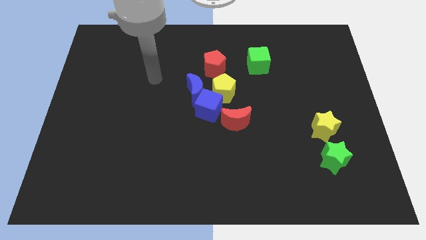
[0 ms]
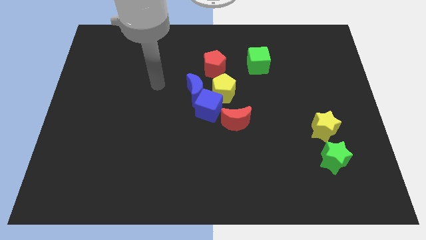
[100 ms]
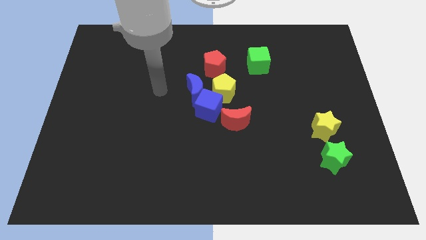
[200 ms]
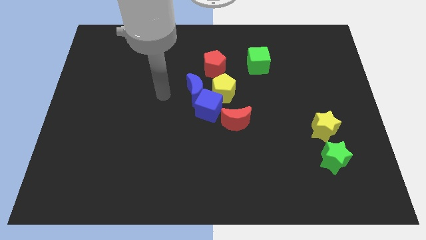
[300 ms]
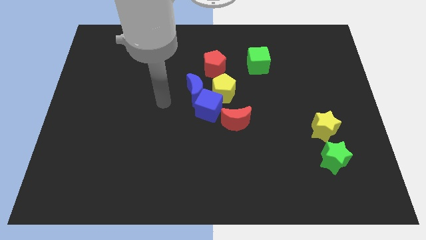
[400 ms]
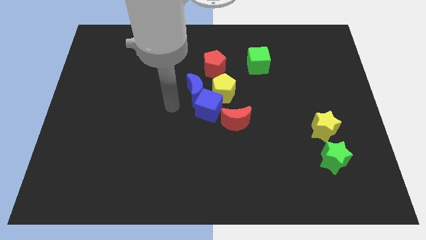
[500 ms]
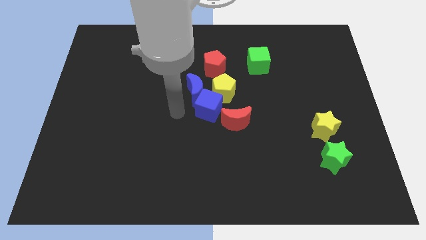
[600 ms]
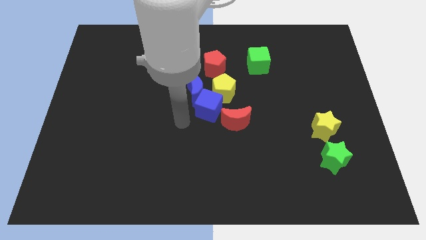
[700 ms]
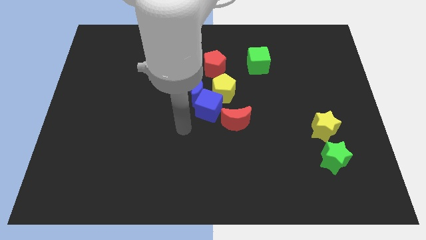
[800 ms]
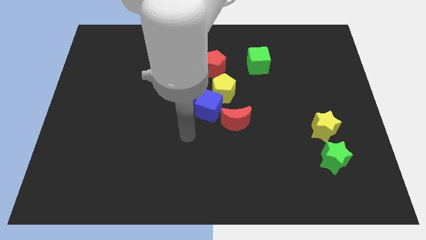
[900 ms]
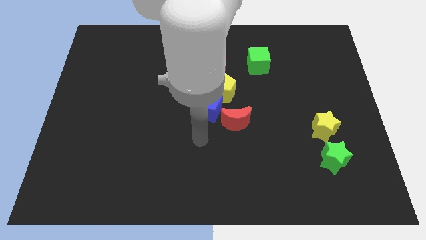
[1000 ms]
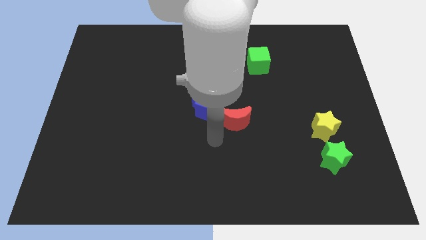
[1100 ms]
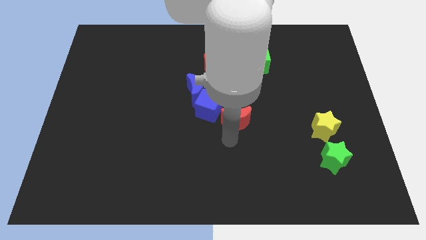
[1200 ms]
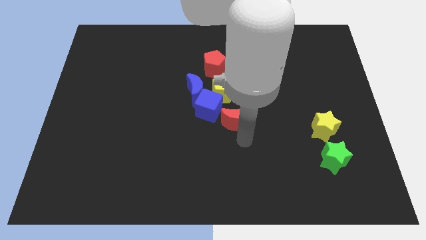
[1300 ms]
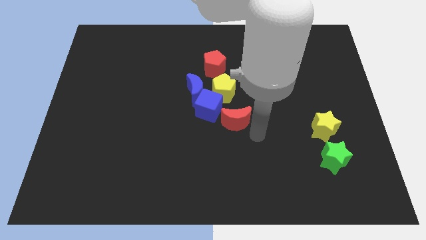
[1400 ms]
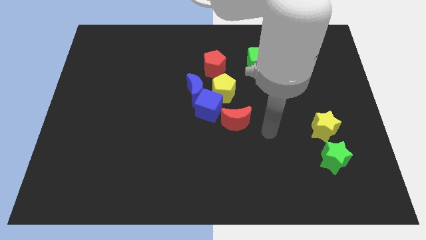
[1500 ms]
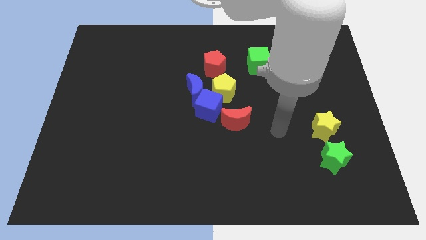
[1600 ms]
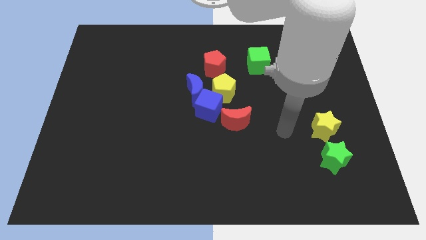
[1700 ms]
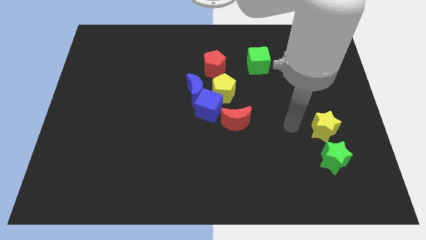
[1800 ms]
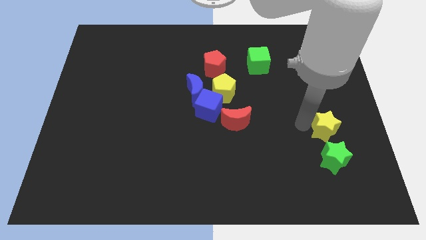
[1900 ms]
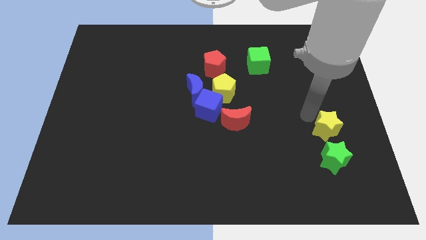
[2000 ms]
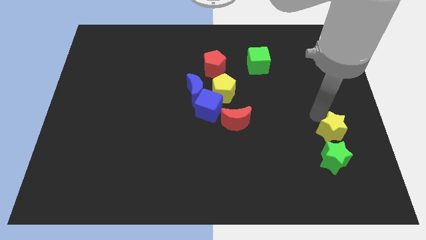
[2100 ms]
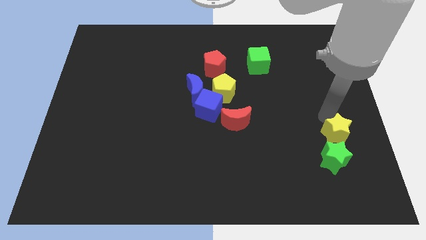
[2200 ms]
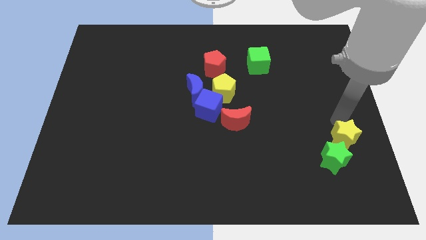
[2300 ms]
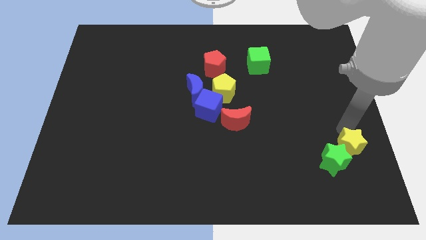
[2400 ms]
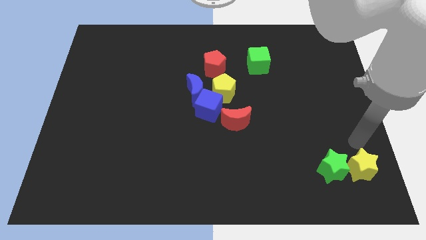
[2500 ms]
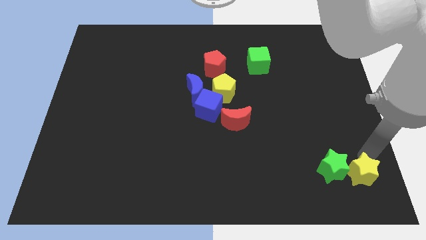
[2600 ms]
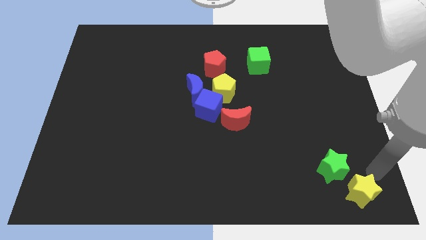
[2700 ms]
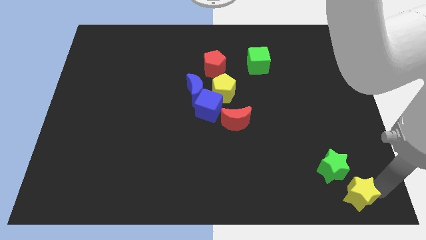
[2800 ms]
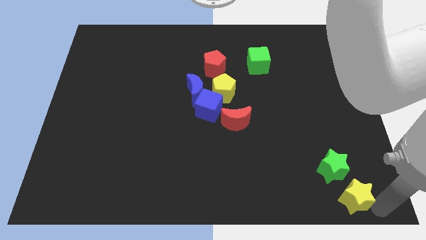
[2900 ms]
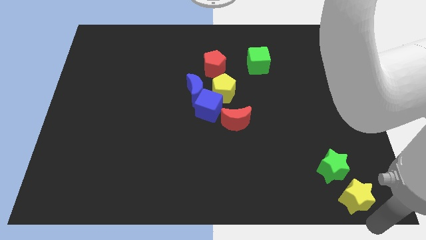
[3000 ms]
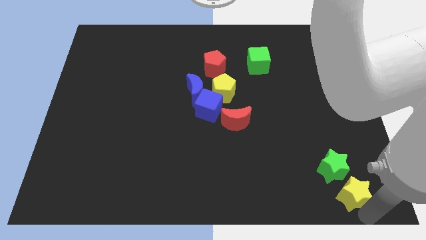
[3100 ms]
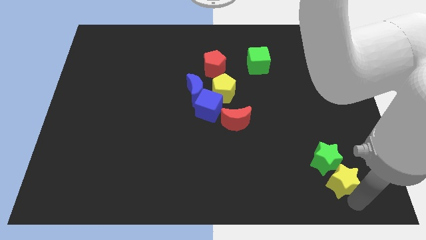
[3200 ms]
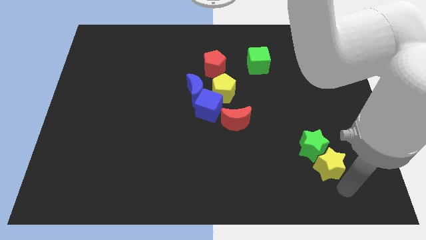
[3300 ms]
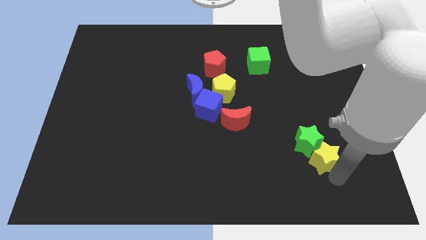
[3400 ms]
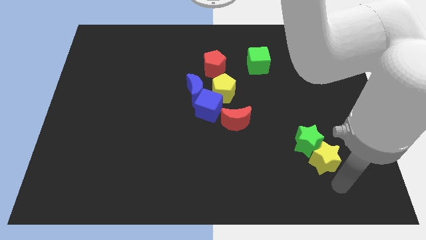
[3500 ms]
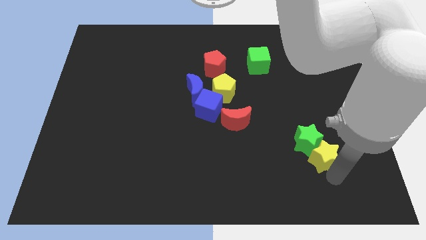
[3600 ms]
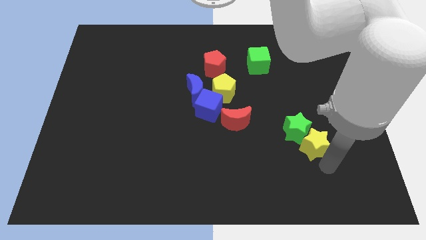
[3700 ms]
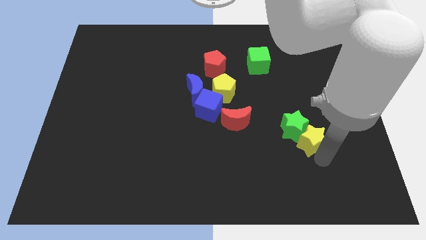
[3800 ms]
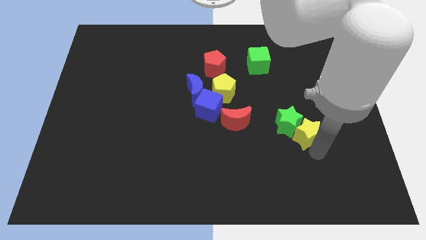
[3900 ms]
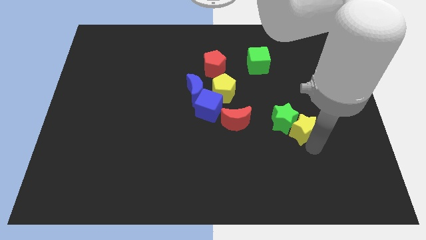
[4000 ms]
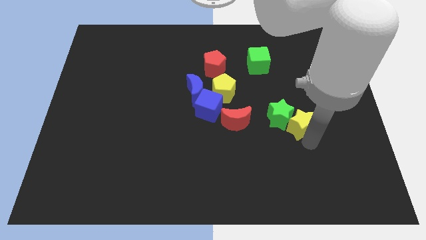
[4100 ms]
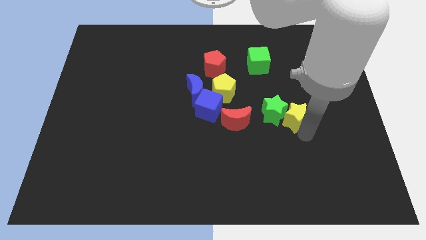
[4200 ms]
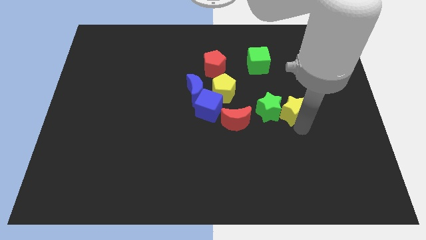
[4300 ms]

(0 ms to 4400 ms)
move the yellow star upwards and to the left a little

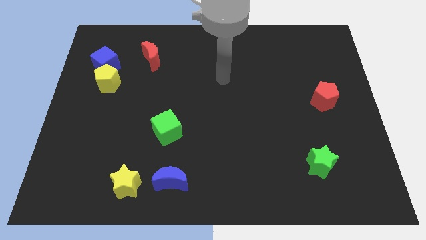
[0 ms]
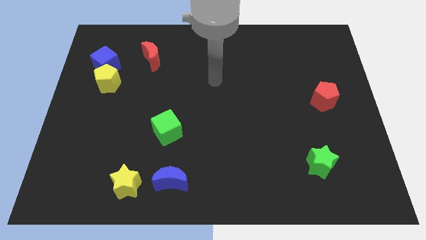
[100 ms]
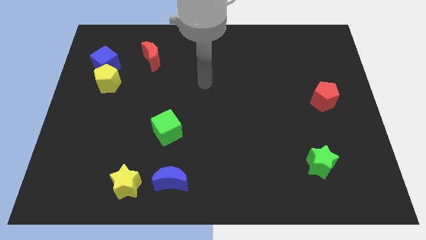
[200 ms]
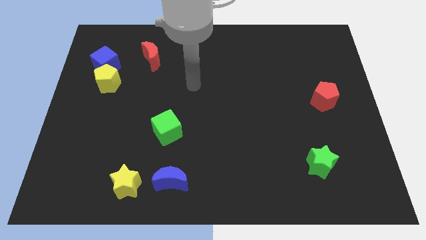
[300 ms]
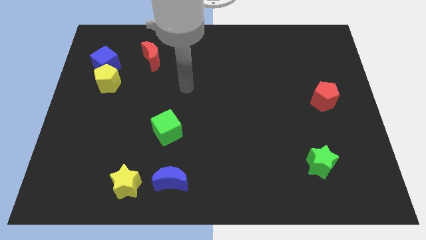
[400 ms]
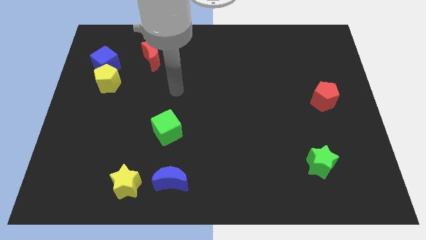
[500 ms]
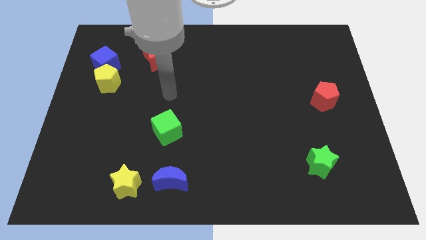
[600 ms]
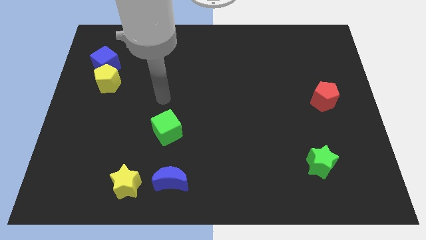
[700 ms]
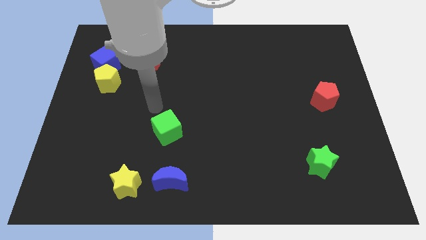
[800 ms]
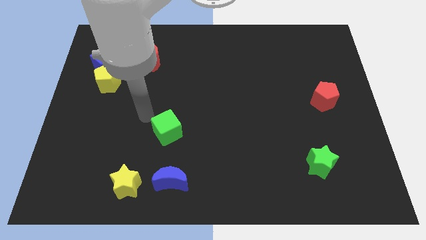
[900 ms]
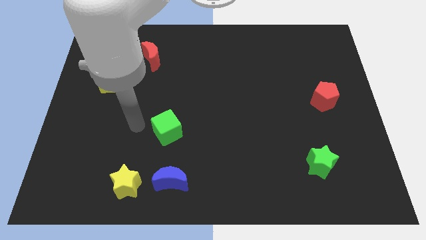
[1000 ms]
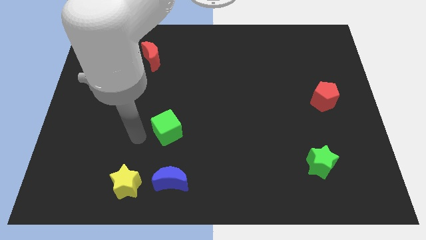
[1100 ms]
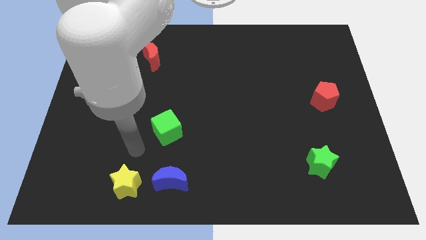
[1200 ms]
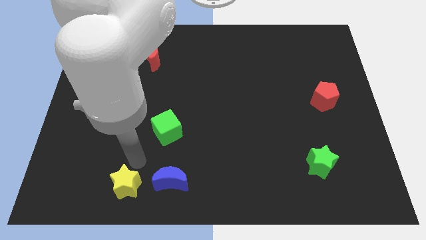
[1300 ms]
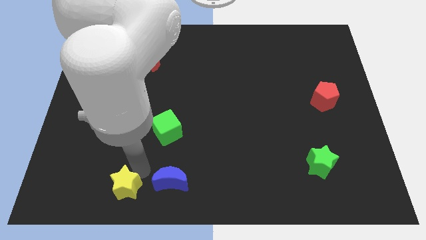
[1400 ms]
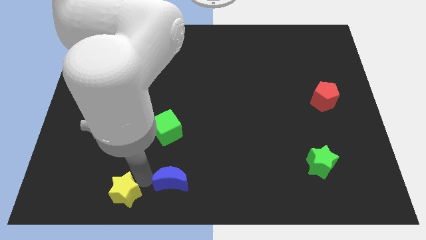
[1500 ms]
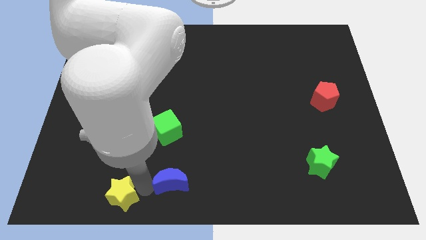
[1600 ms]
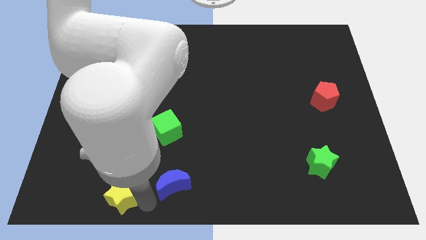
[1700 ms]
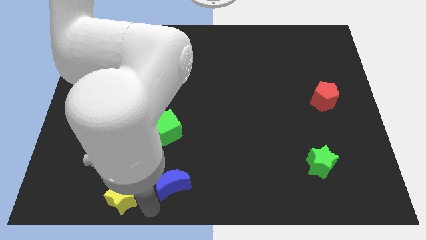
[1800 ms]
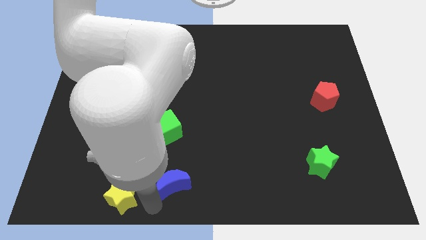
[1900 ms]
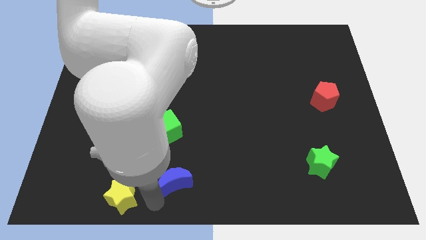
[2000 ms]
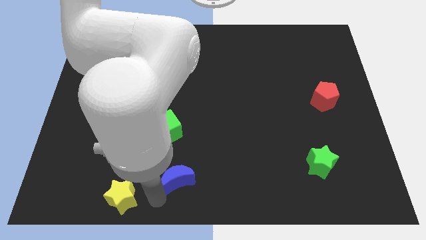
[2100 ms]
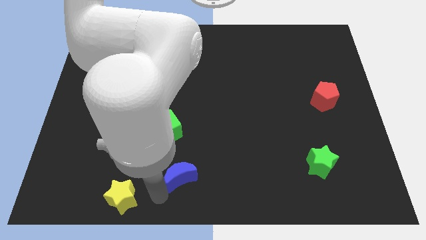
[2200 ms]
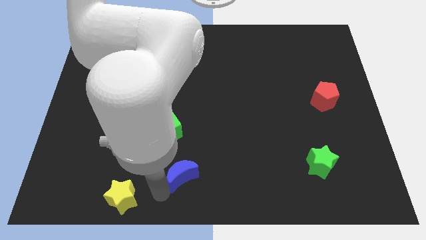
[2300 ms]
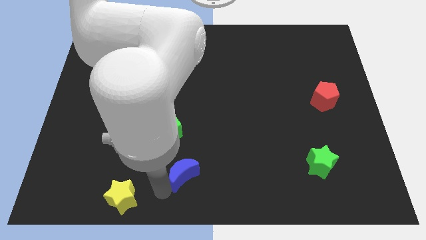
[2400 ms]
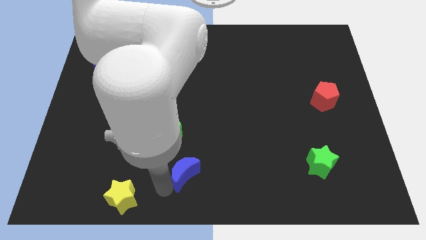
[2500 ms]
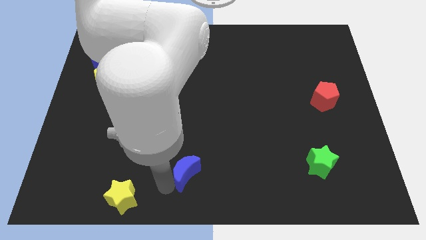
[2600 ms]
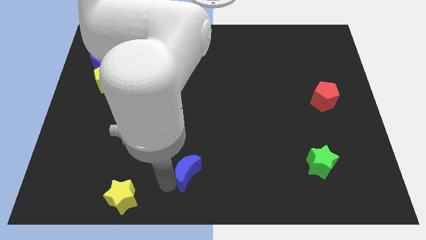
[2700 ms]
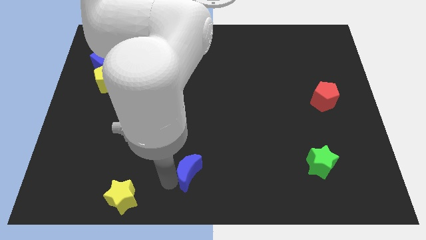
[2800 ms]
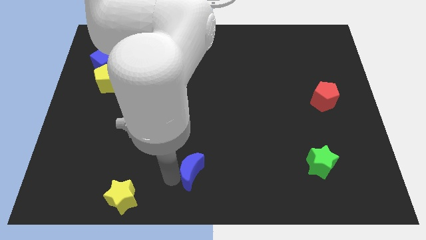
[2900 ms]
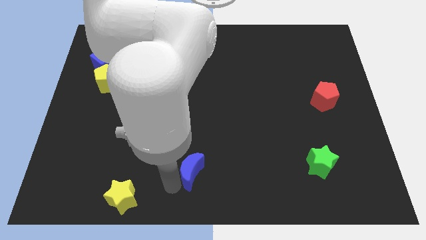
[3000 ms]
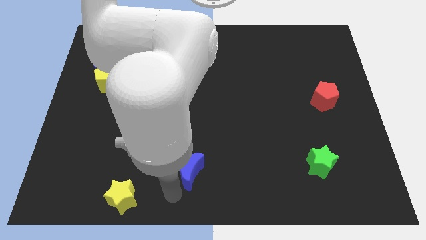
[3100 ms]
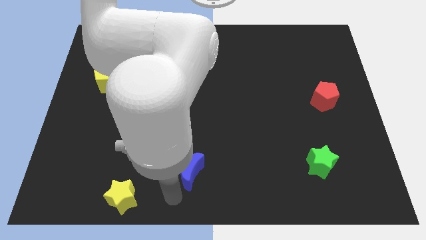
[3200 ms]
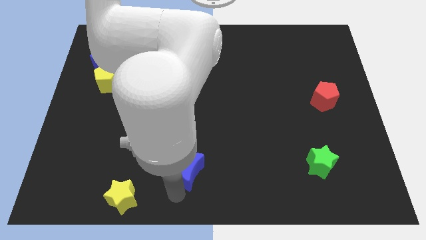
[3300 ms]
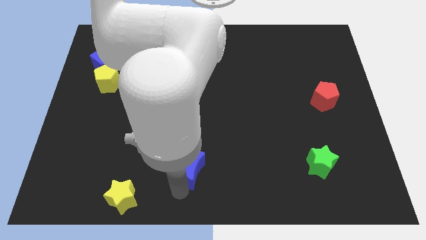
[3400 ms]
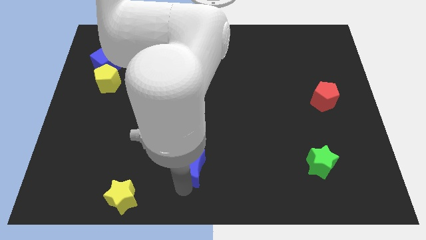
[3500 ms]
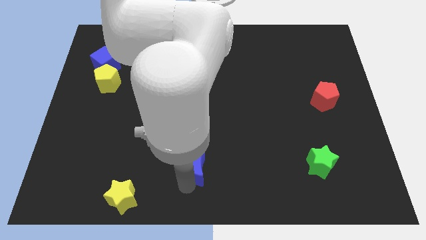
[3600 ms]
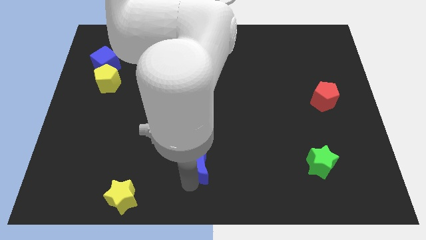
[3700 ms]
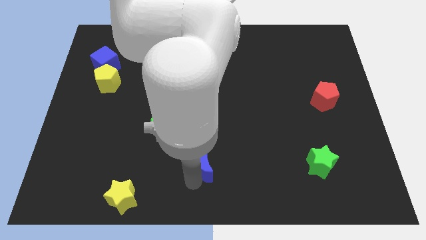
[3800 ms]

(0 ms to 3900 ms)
slide the blue moon diagonally up and right a bit
